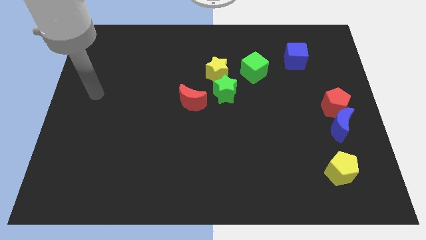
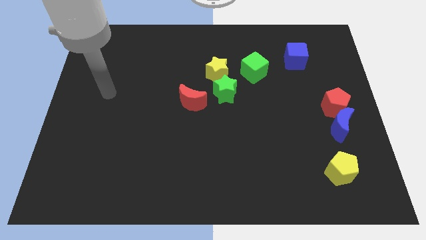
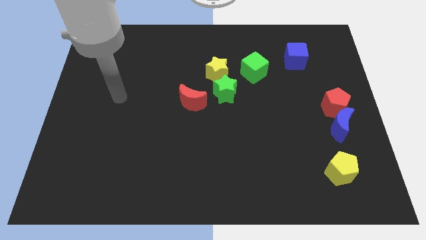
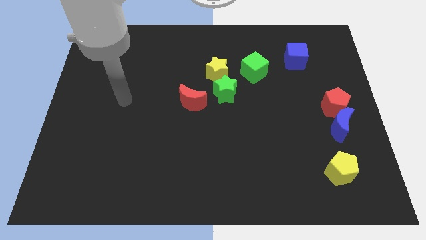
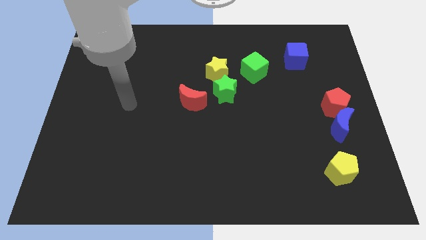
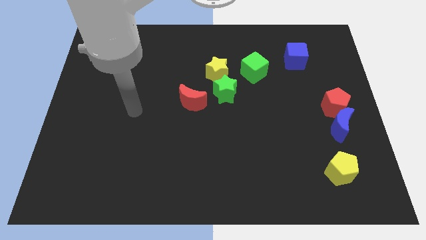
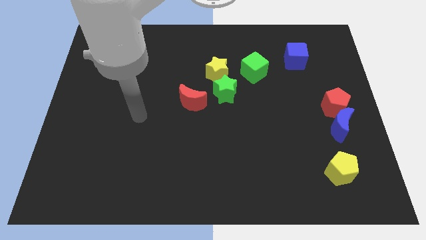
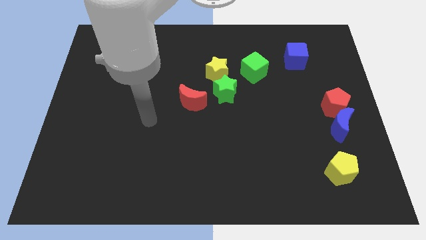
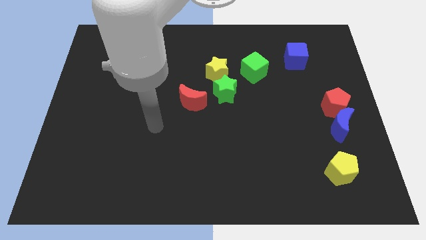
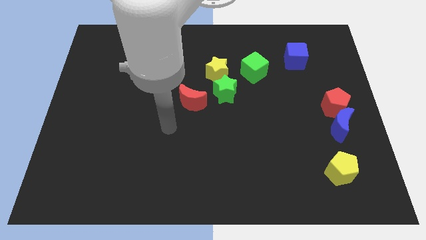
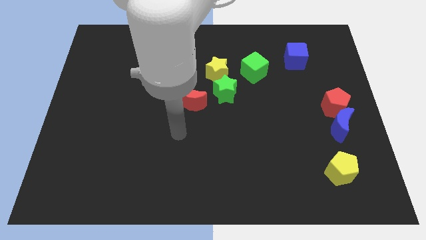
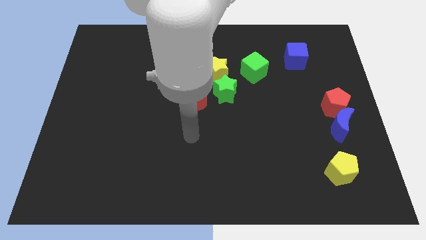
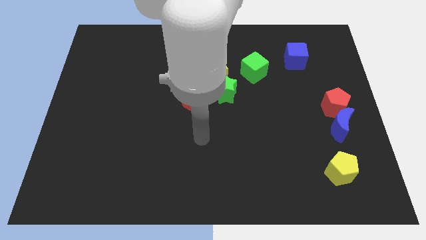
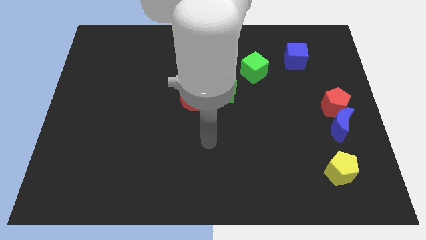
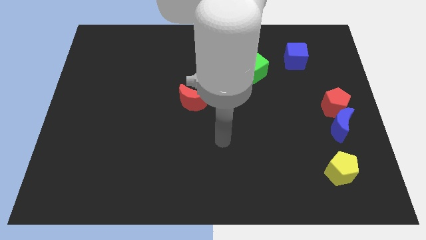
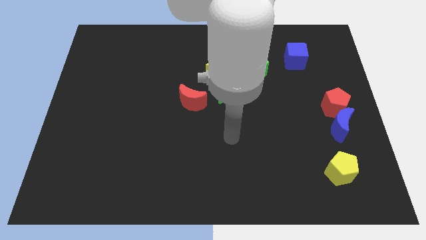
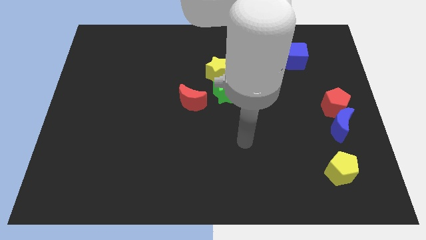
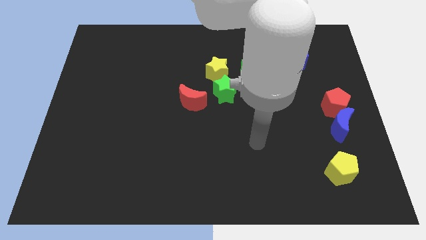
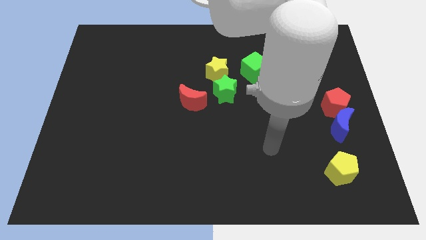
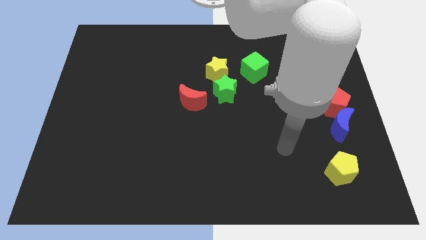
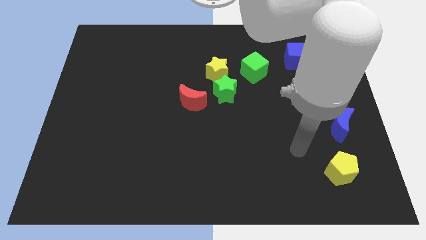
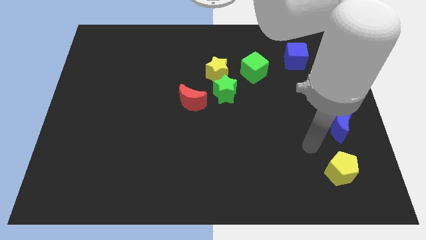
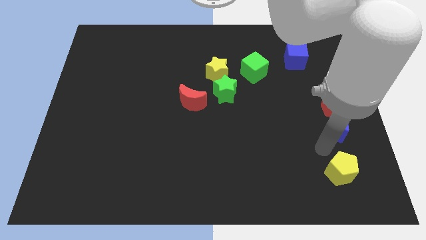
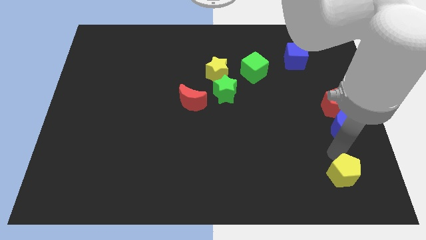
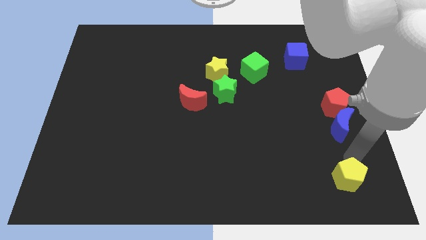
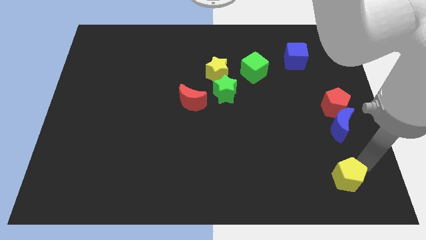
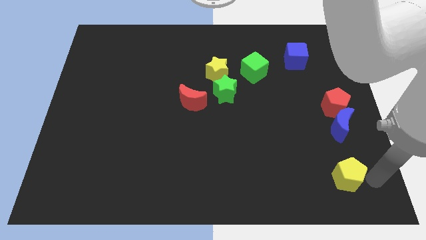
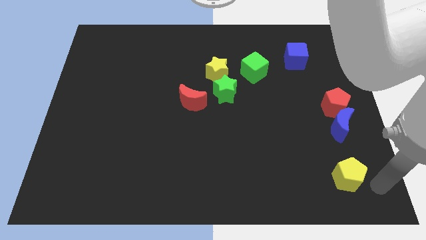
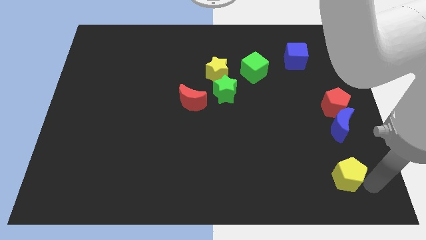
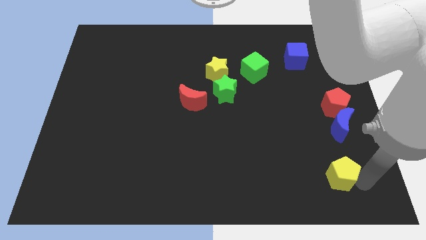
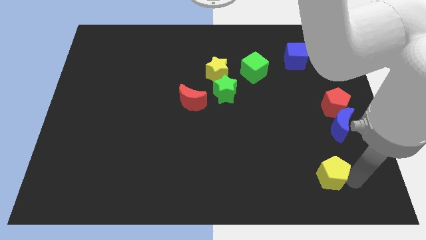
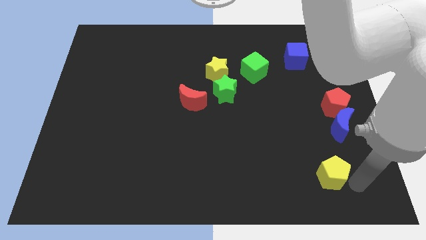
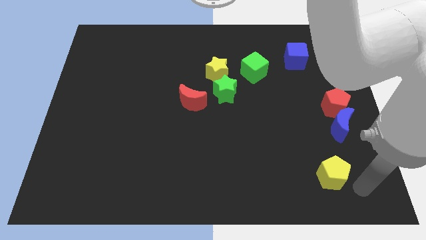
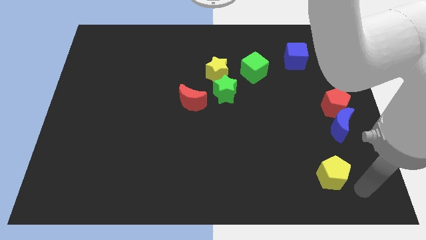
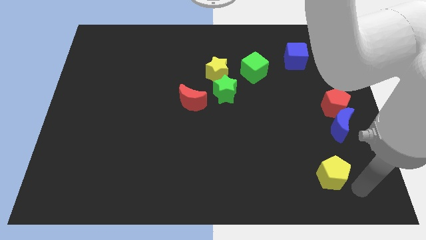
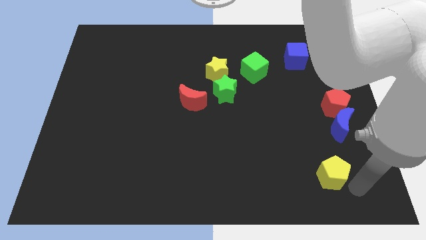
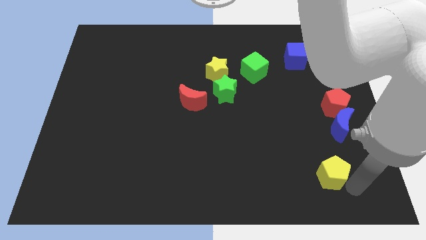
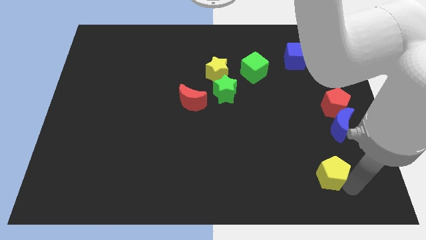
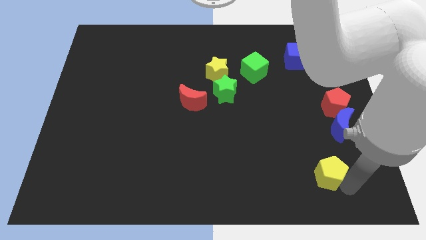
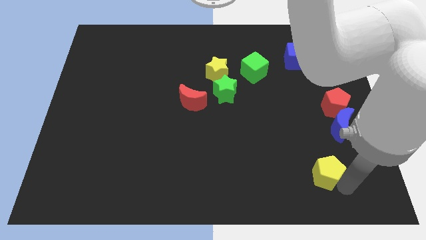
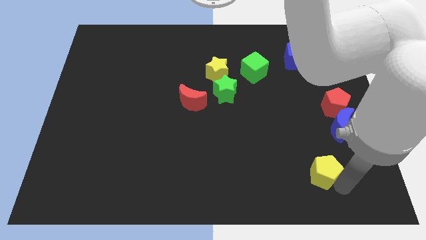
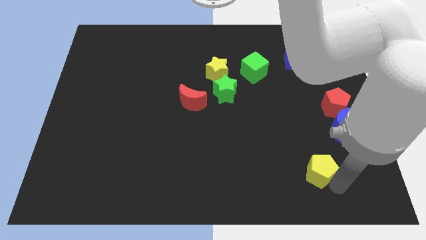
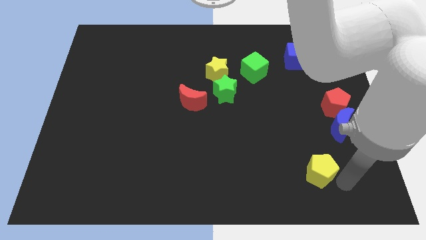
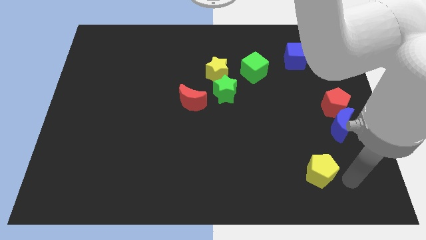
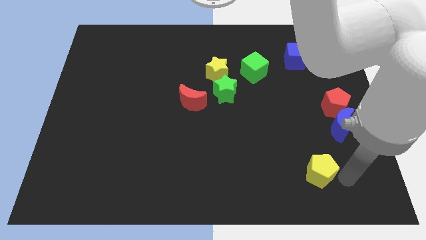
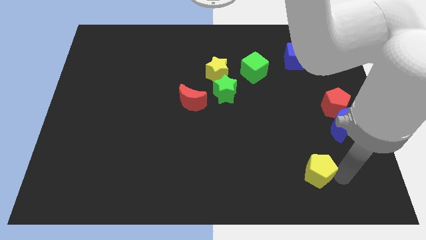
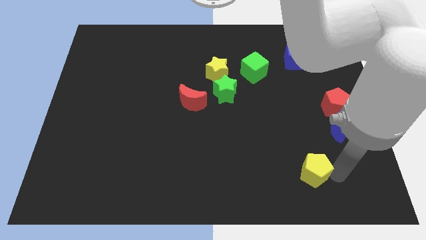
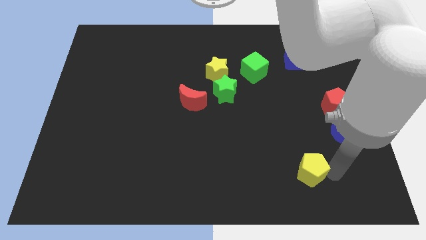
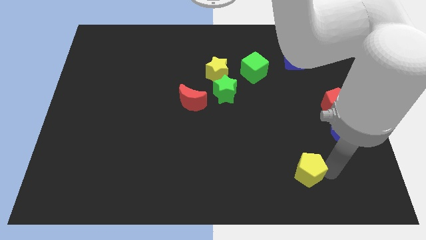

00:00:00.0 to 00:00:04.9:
move the yellow pentagon somewhat to the left

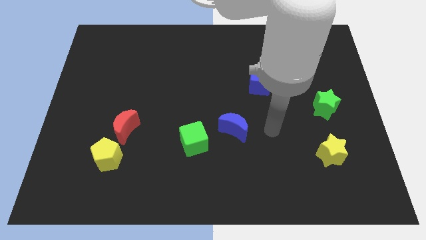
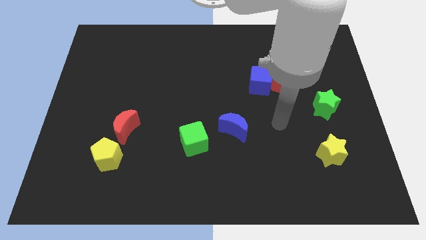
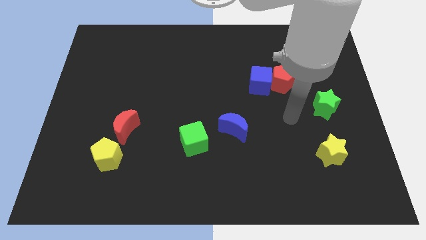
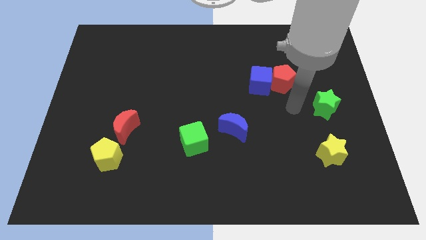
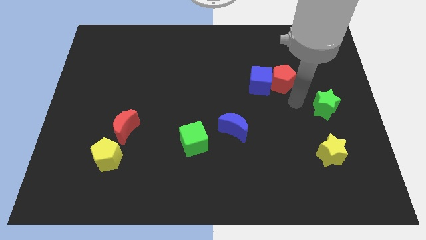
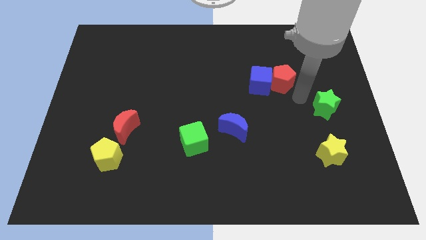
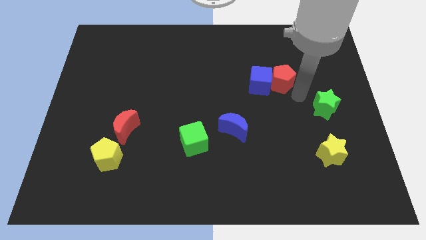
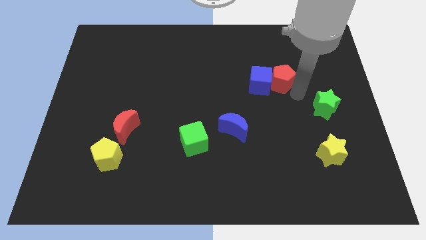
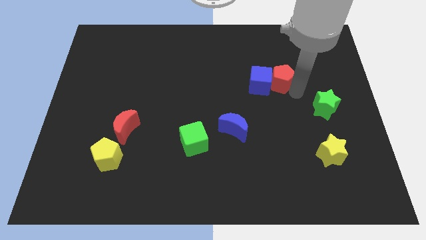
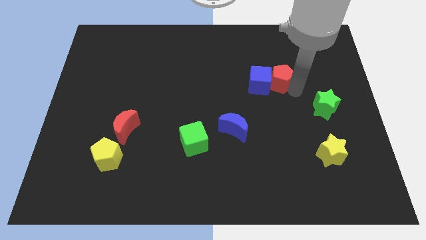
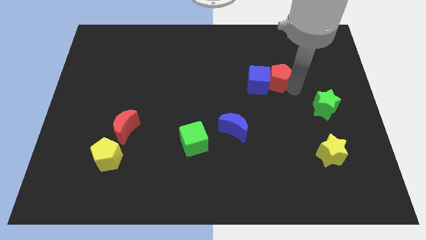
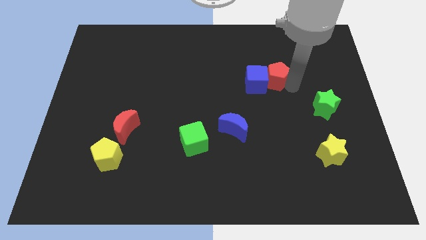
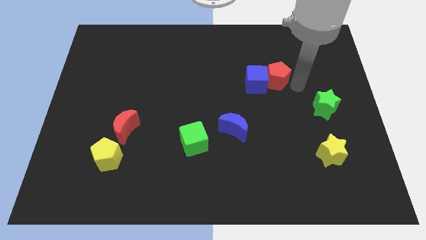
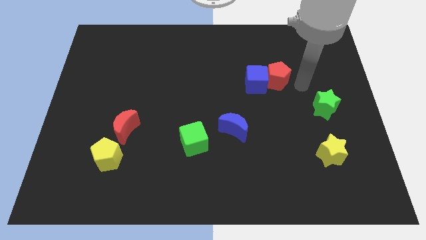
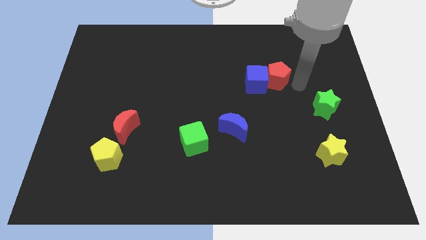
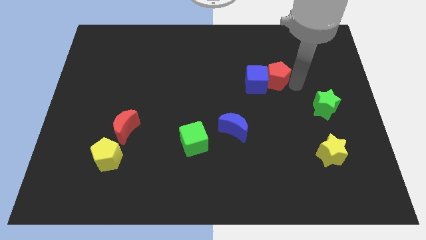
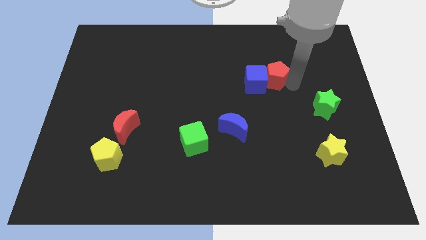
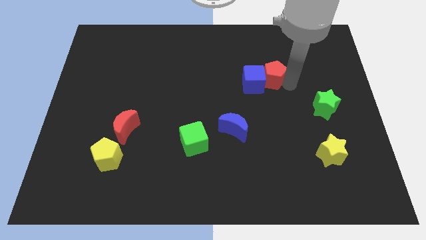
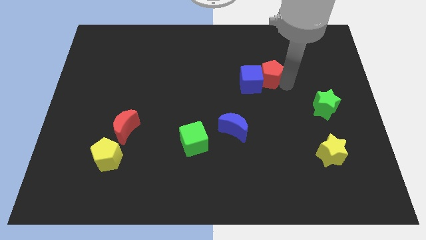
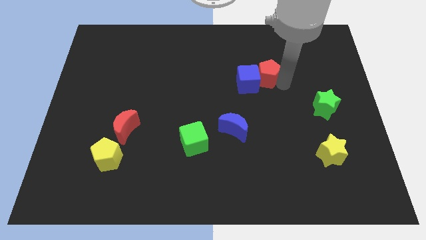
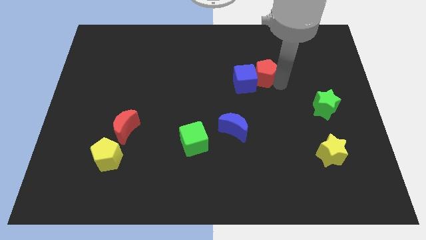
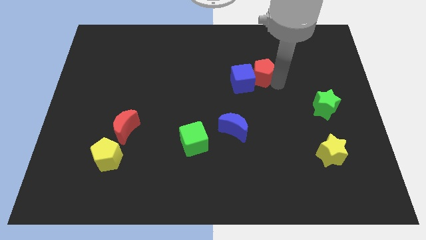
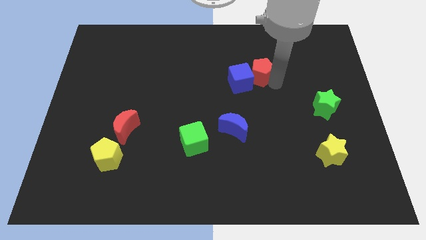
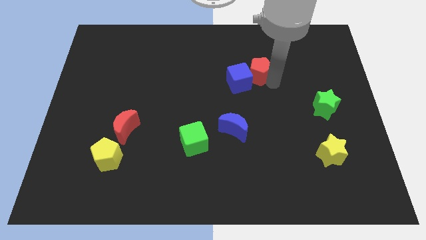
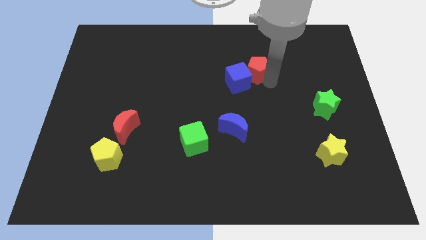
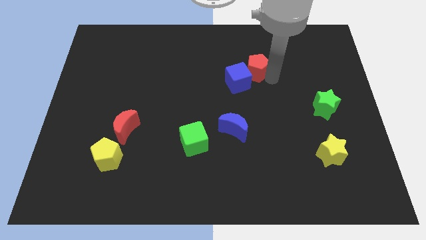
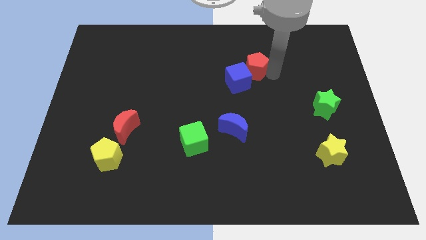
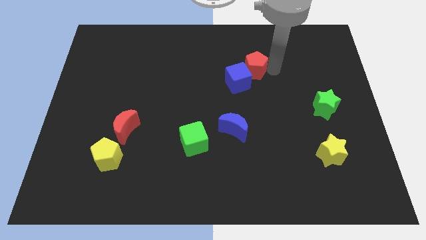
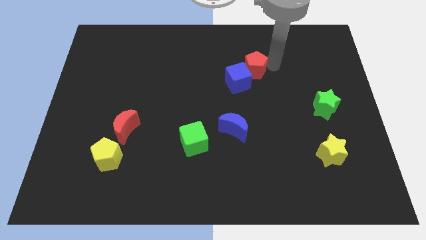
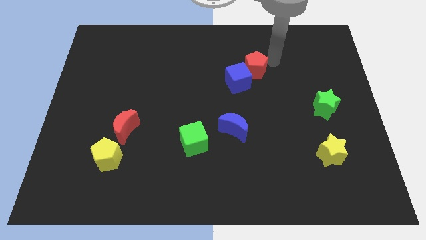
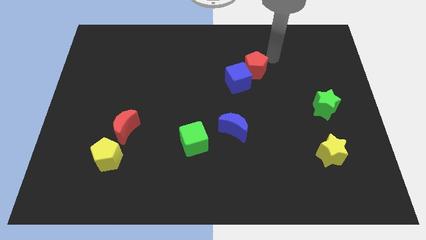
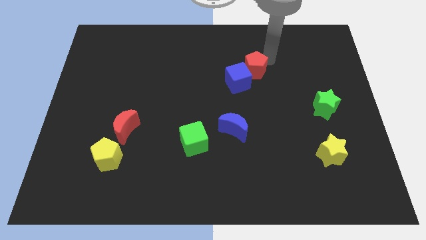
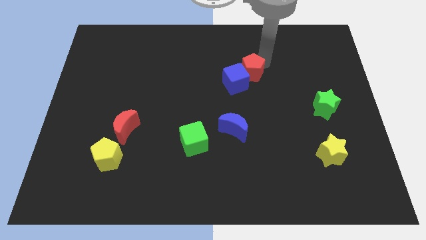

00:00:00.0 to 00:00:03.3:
slide the red pentagon a bit left
